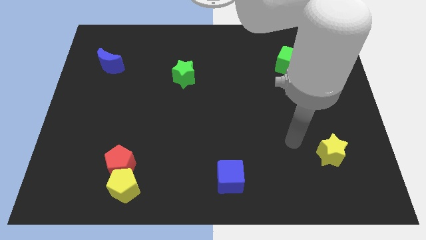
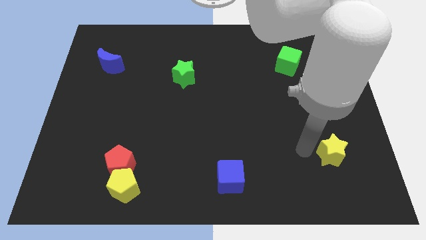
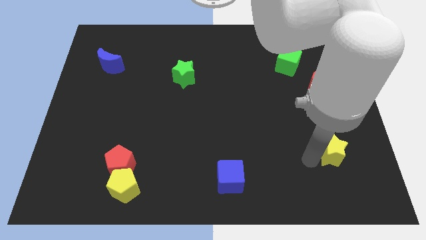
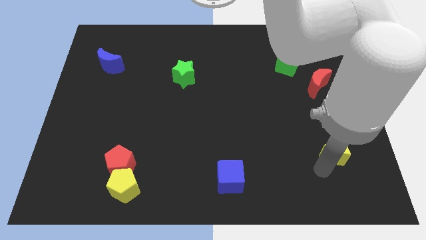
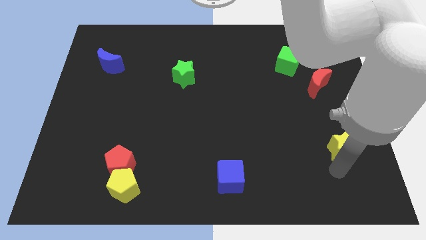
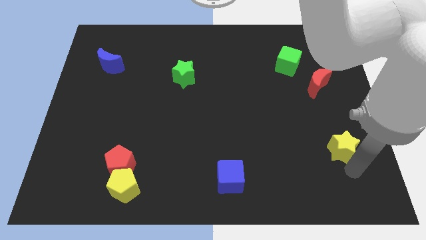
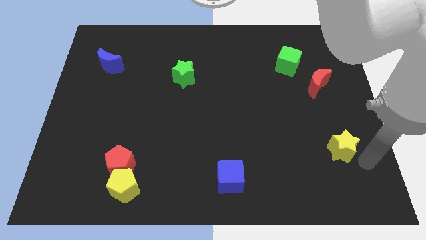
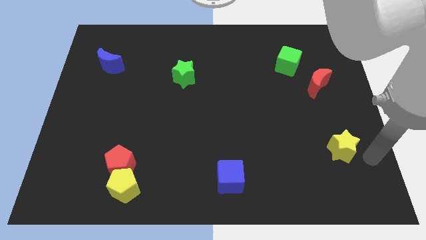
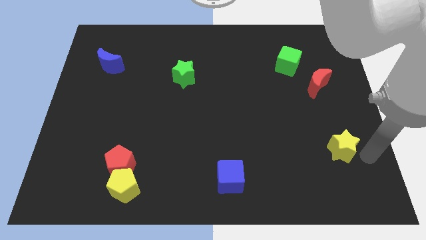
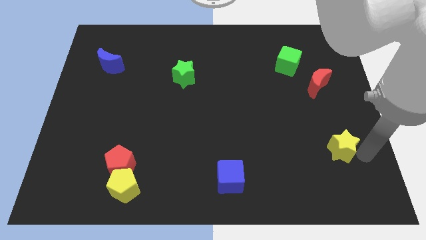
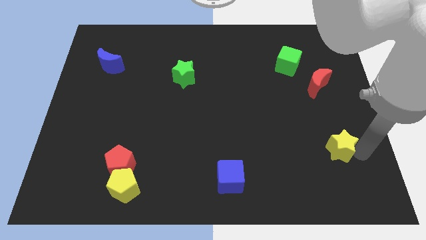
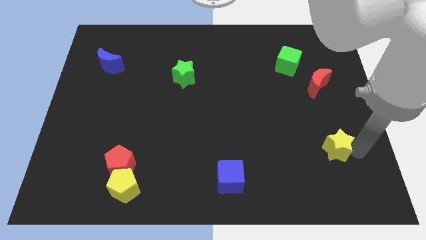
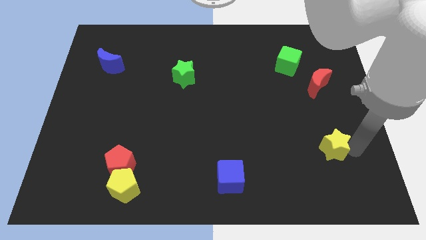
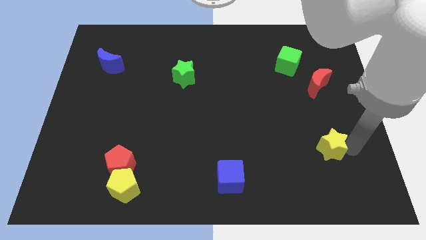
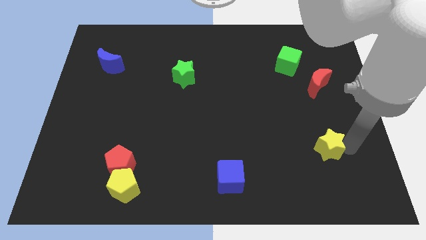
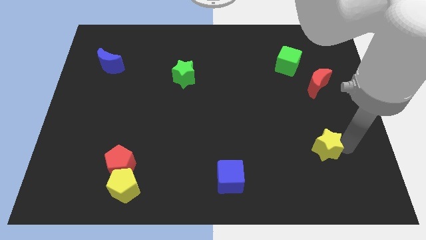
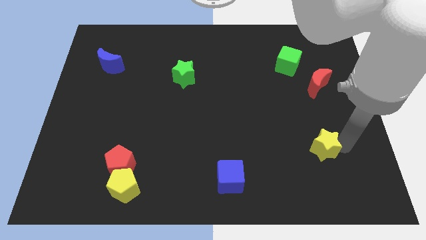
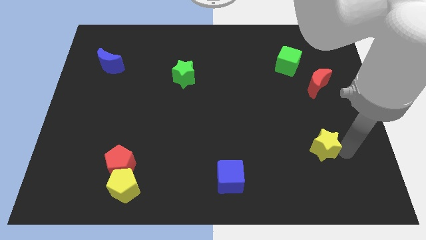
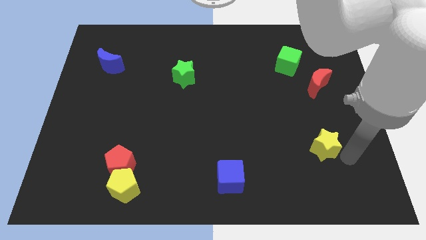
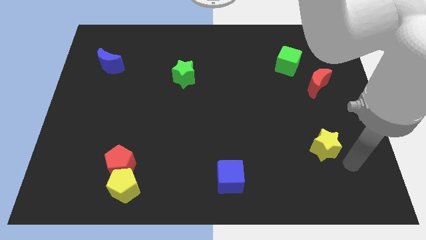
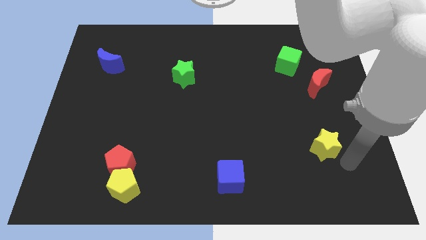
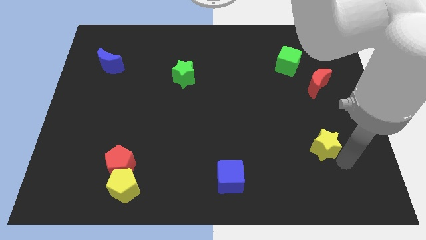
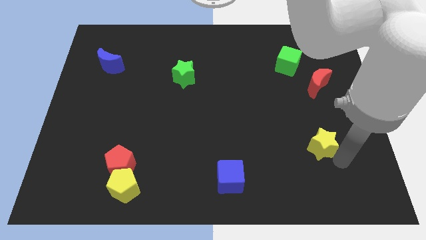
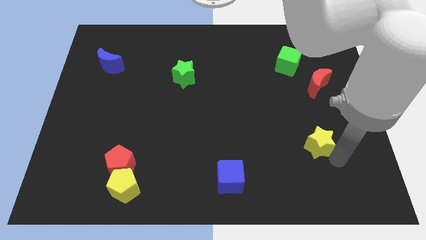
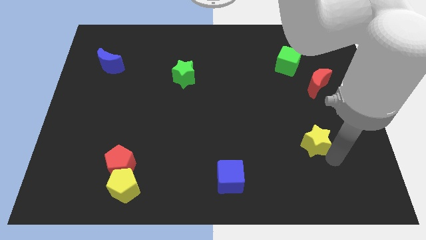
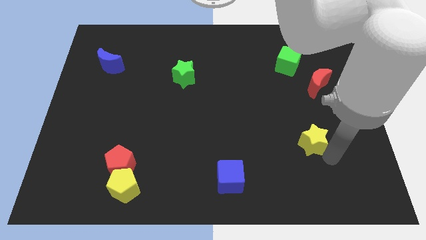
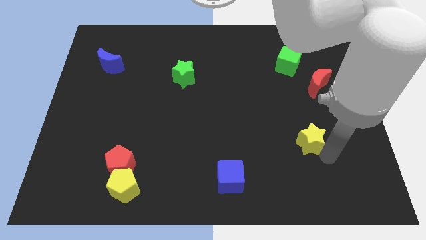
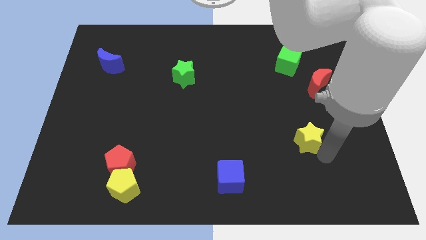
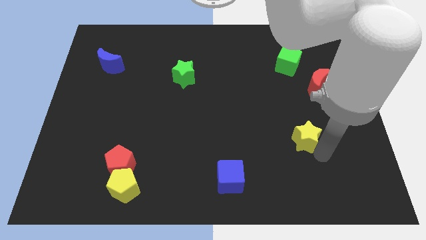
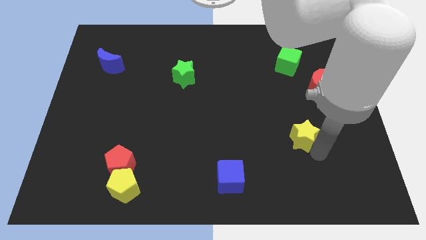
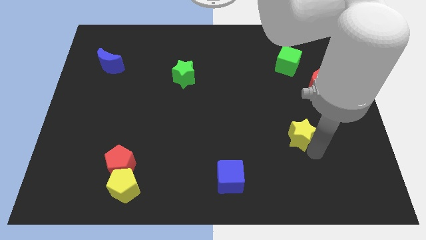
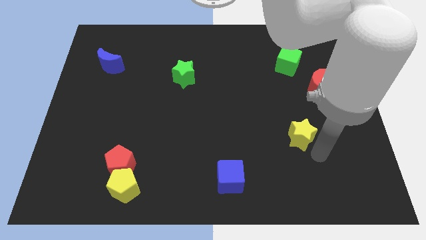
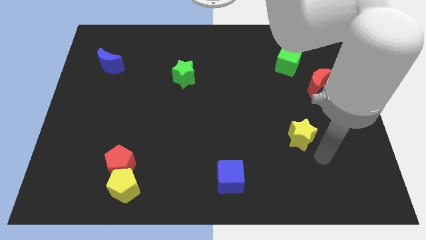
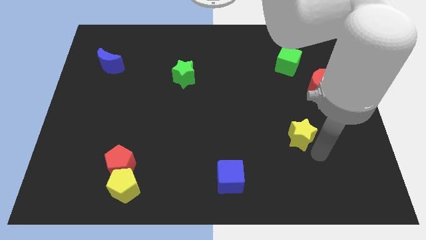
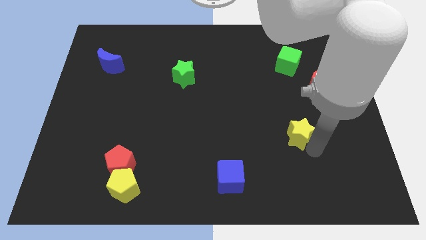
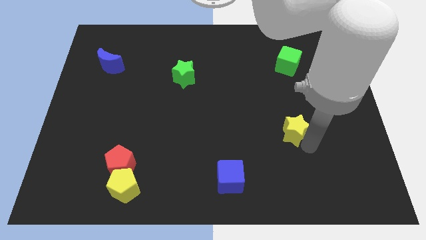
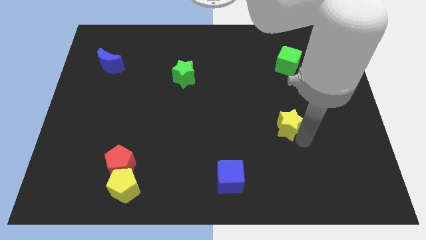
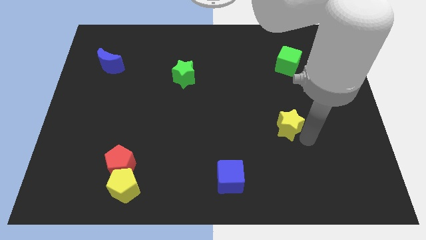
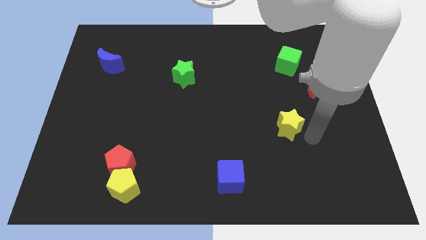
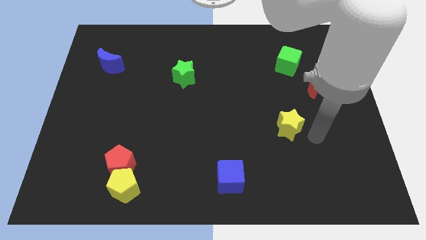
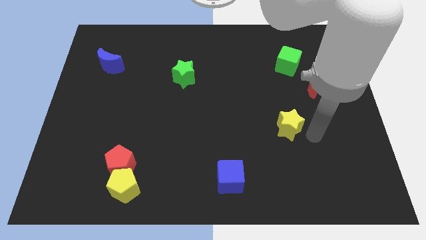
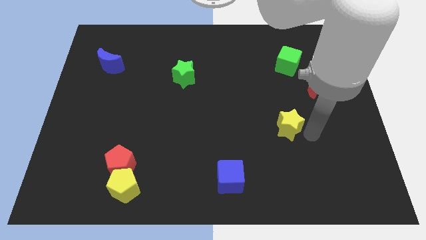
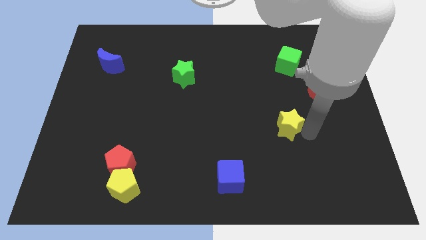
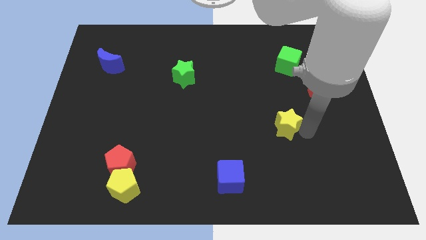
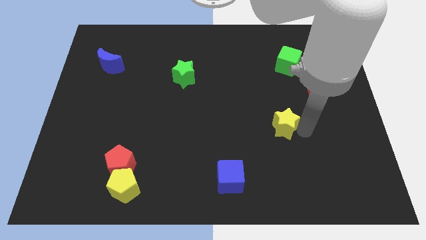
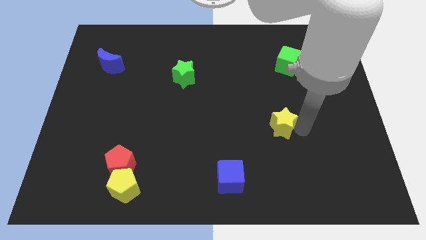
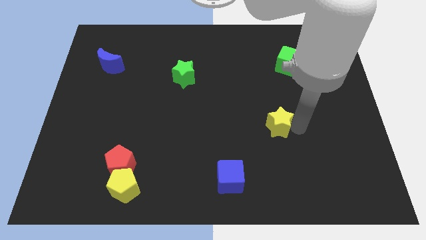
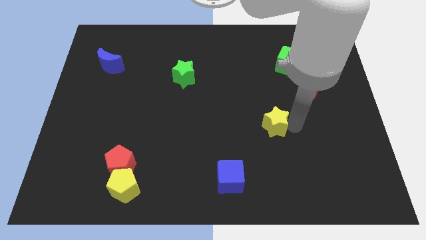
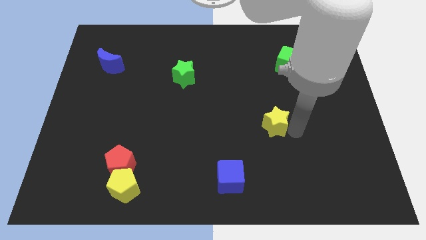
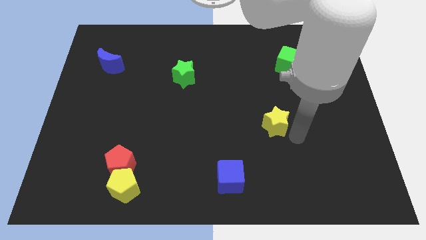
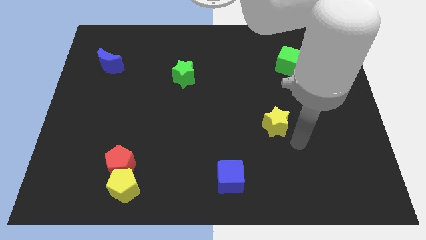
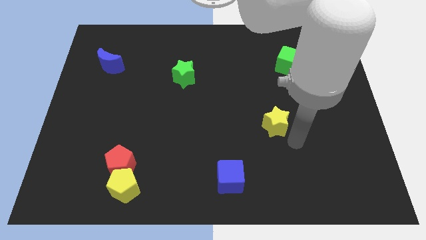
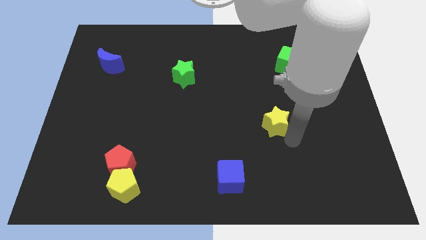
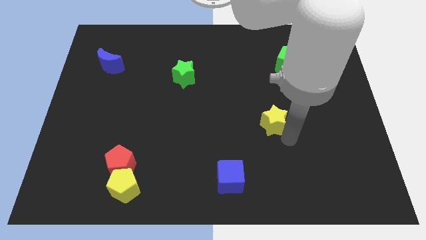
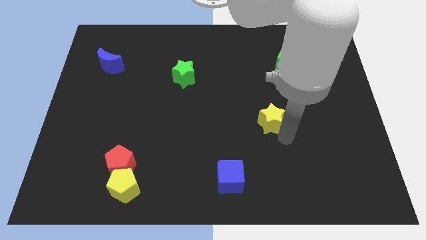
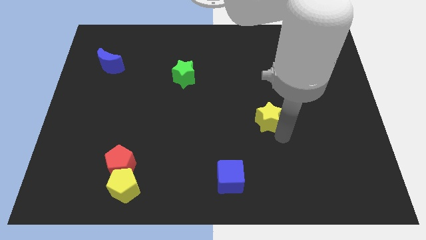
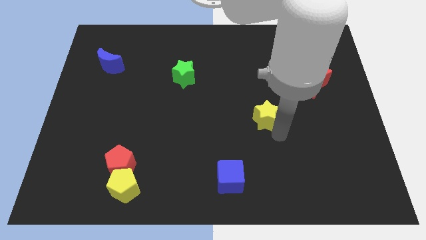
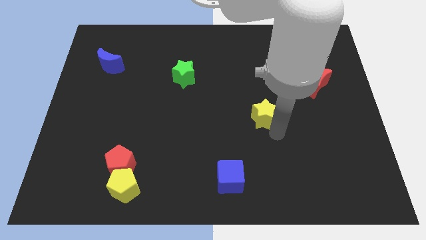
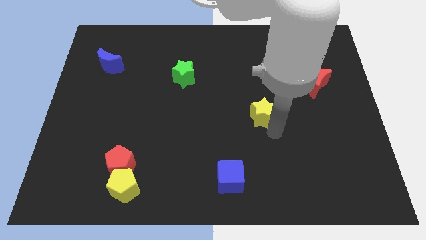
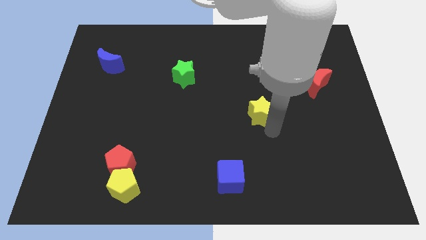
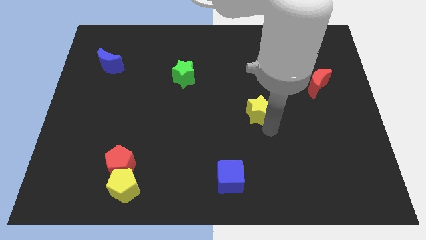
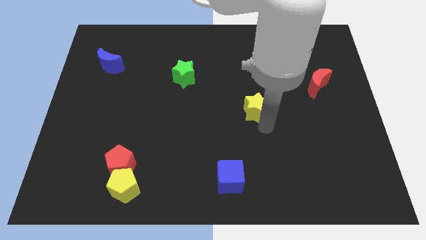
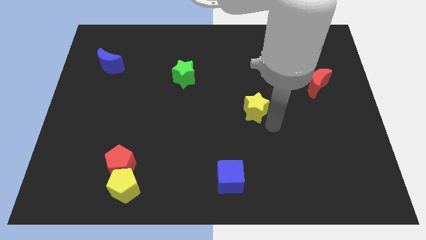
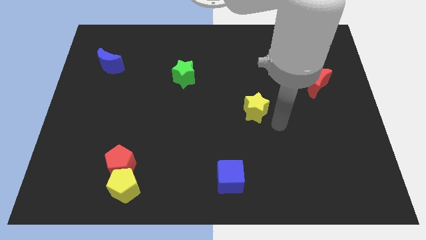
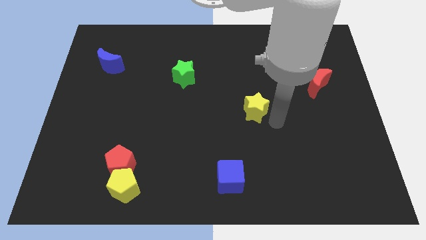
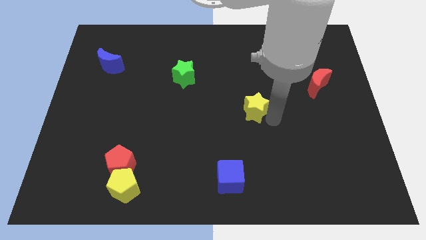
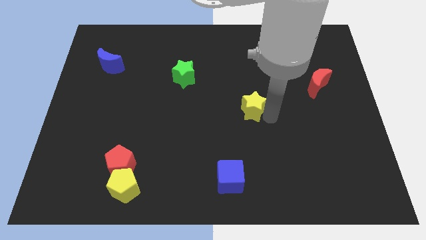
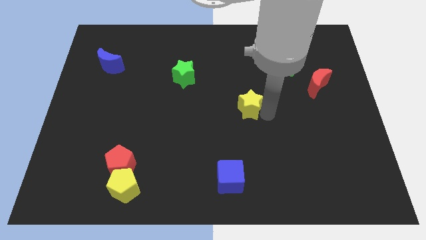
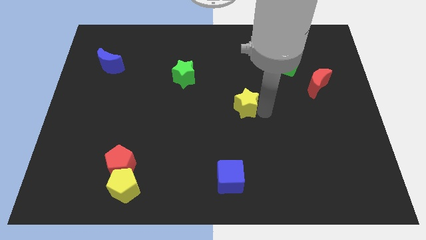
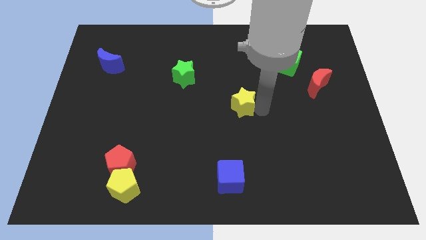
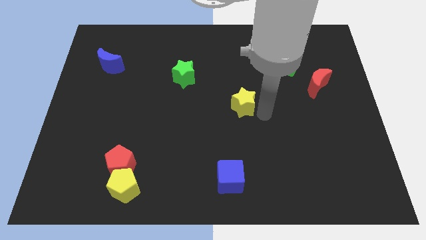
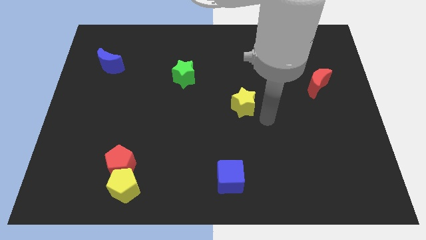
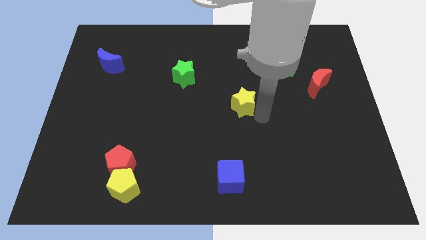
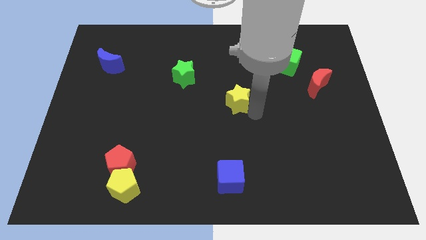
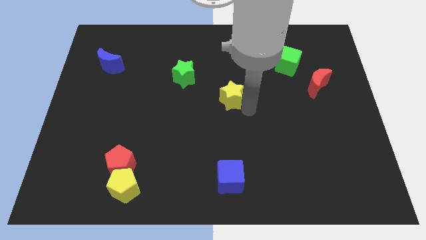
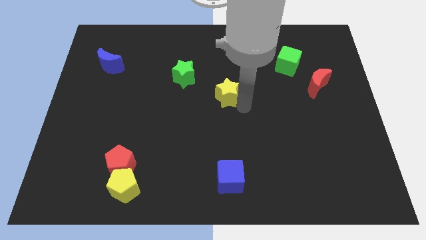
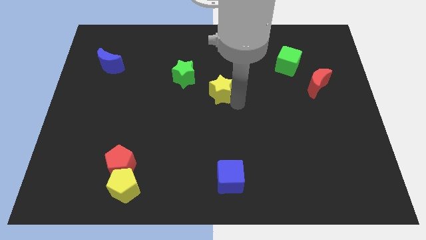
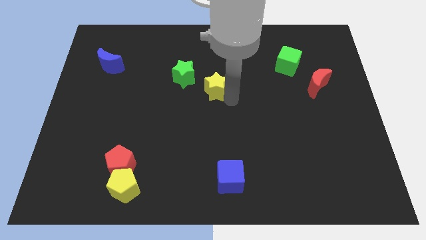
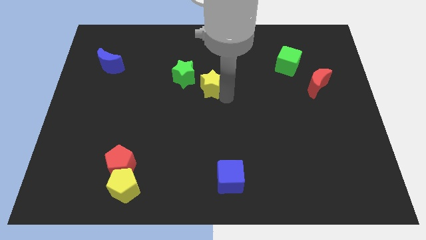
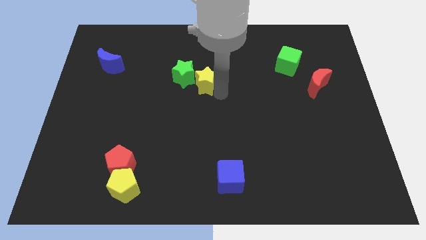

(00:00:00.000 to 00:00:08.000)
move the yellow star towards the green star
